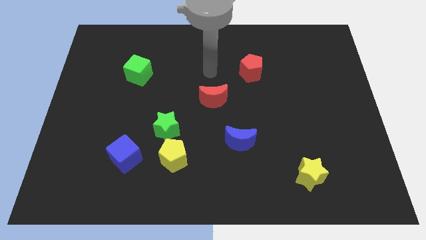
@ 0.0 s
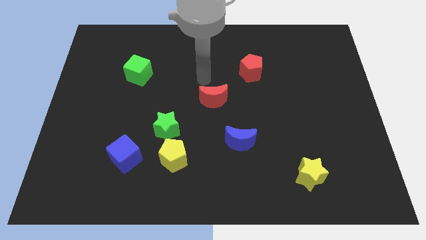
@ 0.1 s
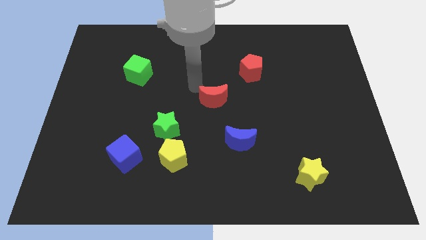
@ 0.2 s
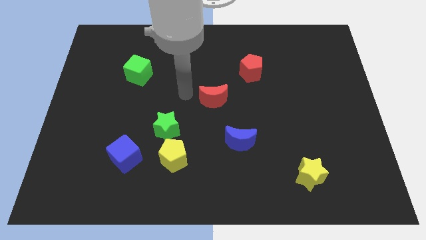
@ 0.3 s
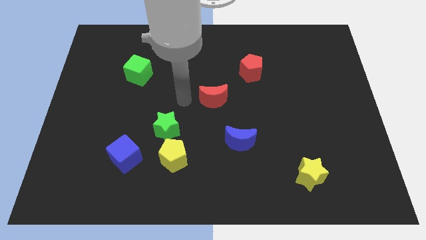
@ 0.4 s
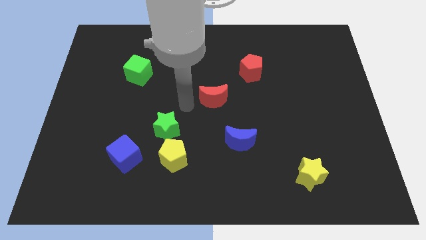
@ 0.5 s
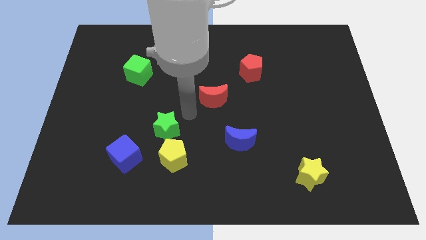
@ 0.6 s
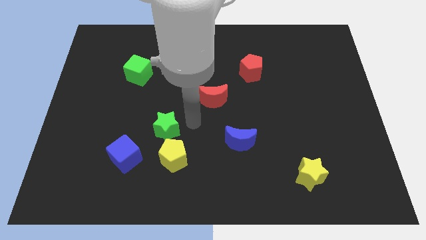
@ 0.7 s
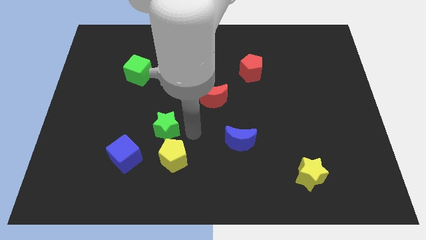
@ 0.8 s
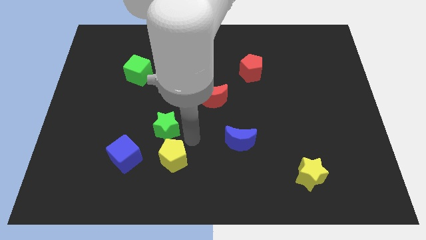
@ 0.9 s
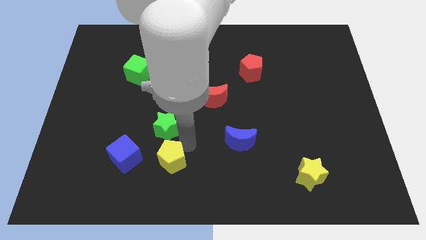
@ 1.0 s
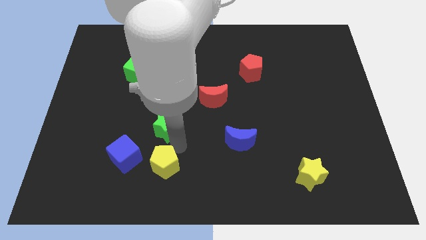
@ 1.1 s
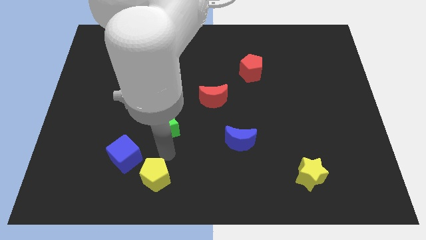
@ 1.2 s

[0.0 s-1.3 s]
move the green star away from the yellow pentagon

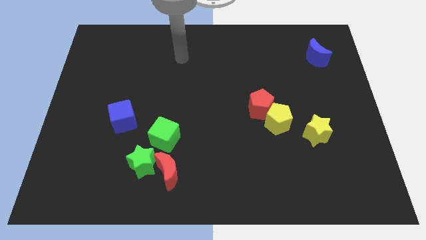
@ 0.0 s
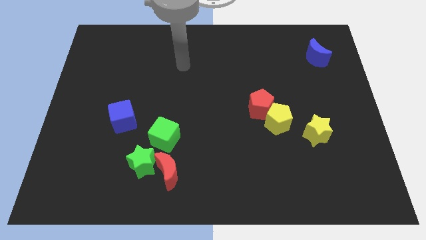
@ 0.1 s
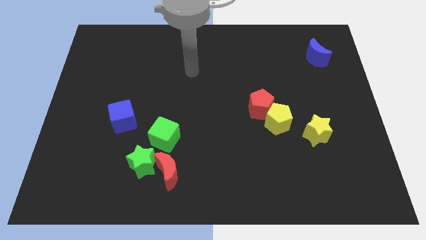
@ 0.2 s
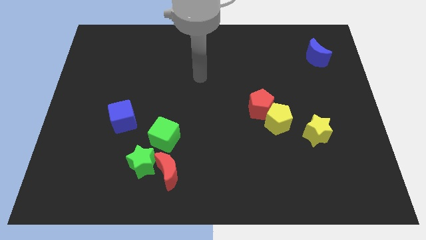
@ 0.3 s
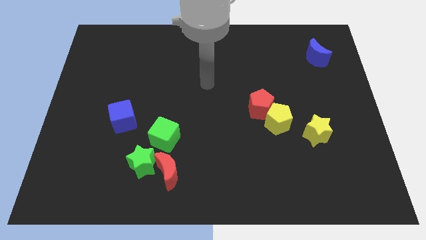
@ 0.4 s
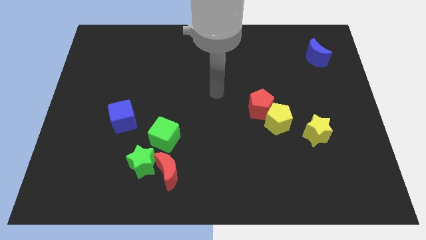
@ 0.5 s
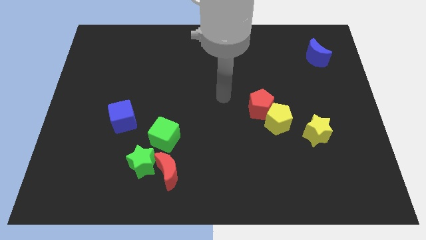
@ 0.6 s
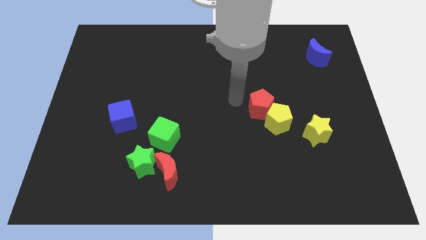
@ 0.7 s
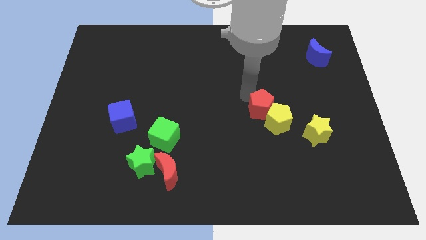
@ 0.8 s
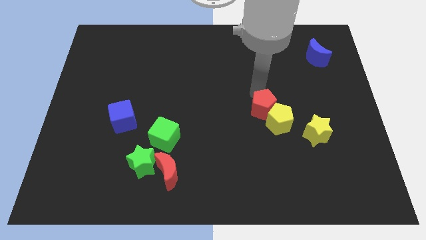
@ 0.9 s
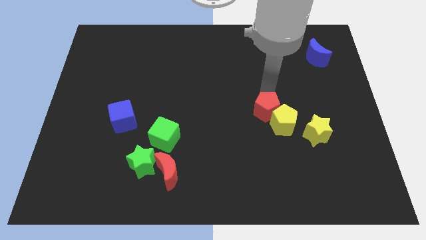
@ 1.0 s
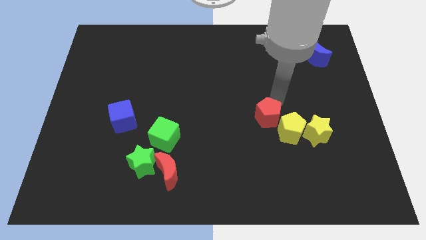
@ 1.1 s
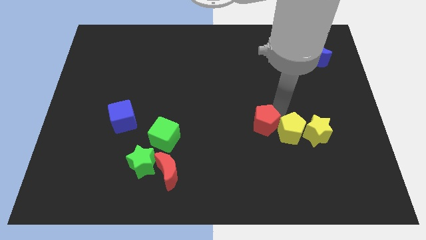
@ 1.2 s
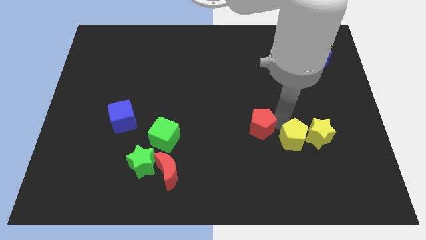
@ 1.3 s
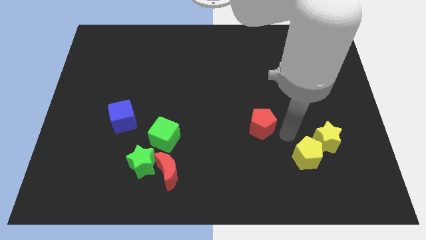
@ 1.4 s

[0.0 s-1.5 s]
separate the red pentagon from the yellow pentagon

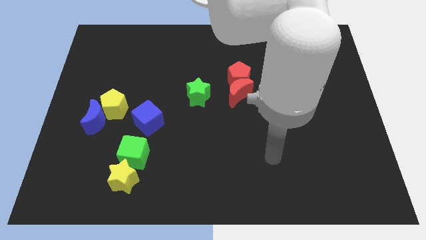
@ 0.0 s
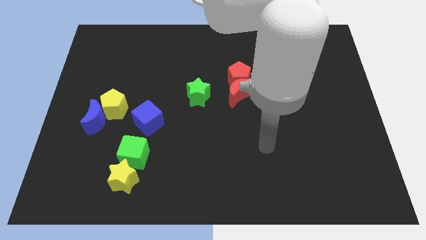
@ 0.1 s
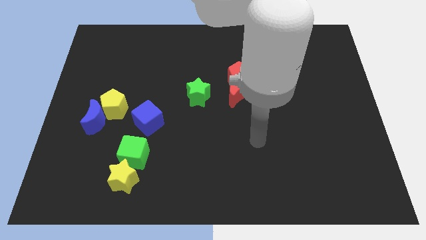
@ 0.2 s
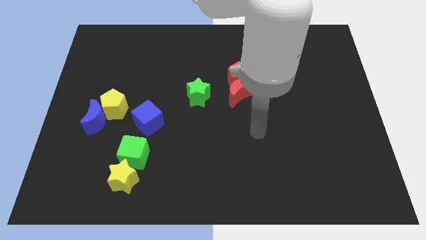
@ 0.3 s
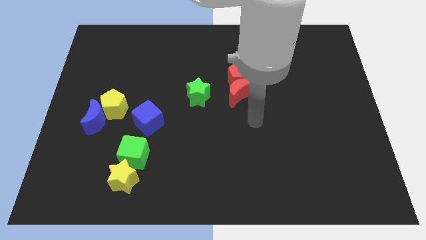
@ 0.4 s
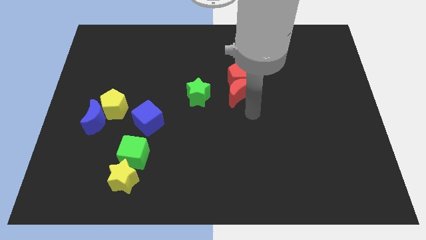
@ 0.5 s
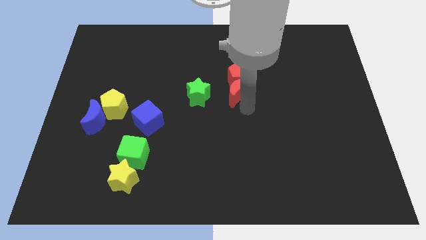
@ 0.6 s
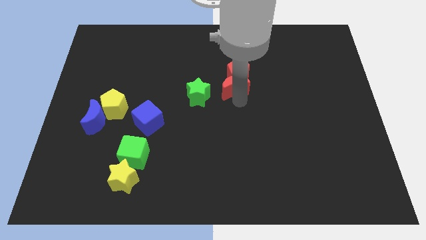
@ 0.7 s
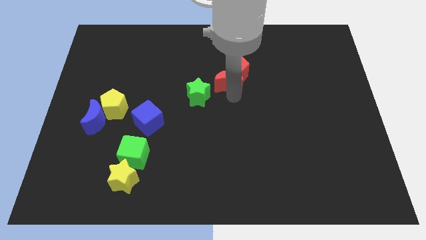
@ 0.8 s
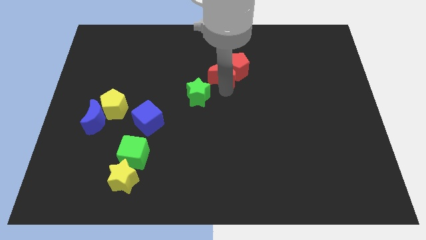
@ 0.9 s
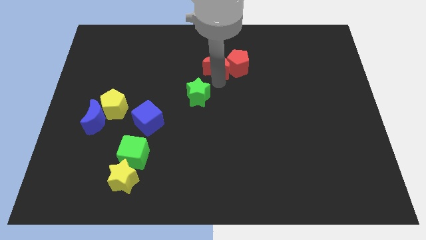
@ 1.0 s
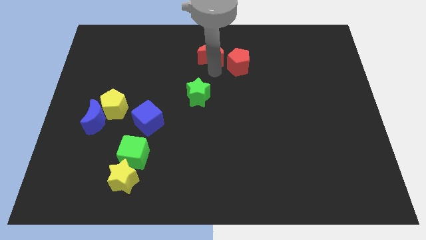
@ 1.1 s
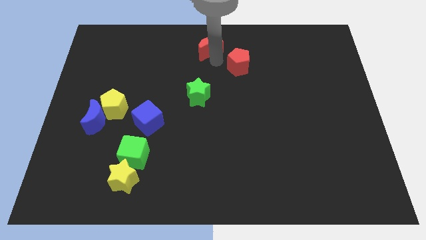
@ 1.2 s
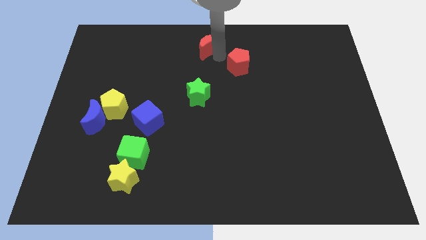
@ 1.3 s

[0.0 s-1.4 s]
separate the red pentagon from the red moon

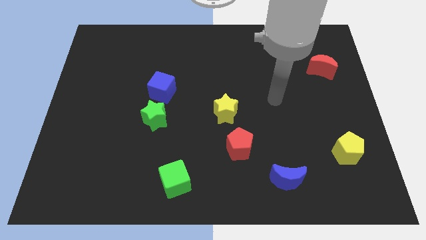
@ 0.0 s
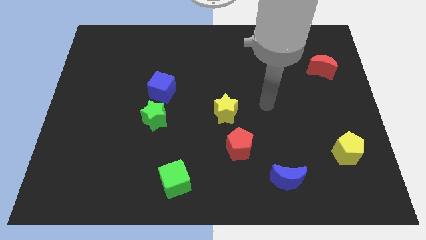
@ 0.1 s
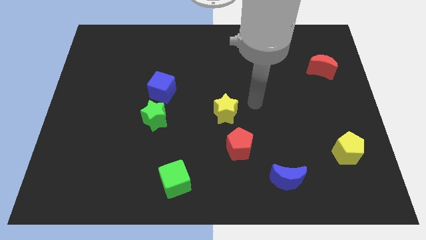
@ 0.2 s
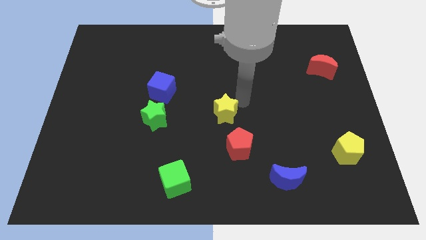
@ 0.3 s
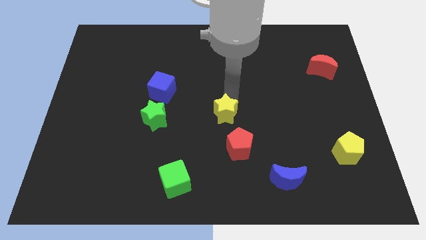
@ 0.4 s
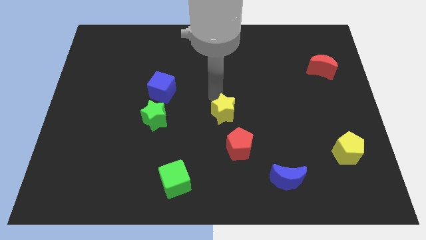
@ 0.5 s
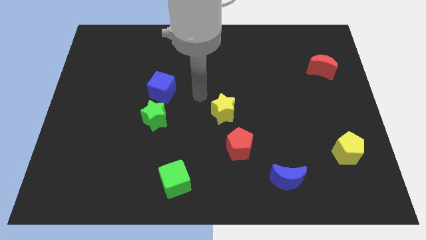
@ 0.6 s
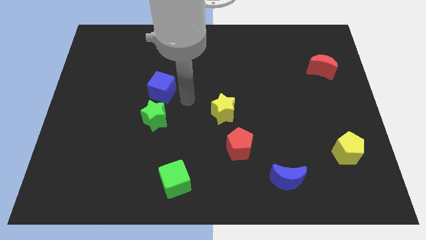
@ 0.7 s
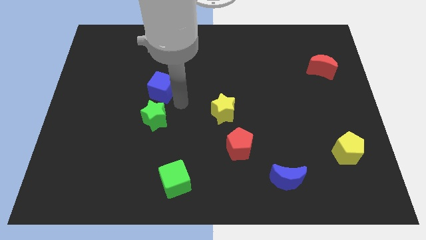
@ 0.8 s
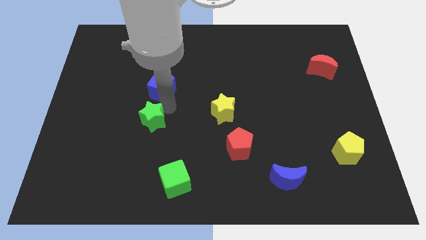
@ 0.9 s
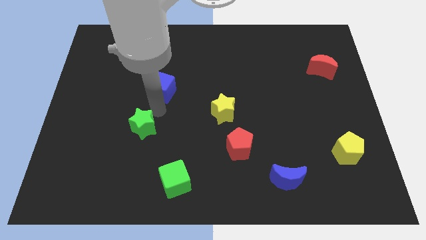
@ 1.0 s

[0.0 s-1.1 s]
pull the blue cube apart from the green star

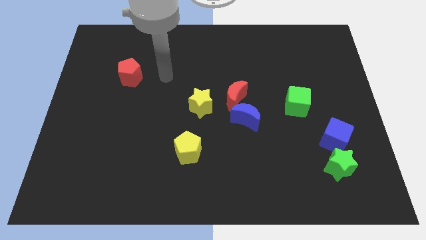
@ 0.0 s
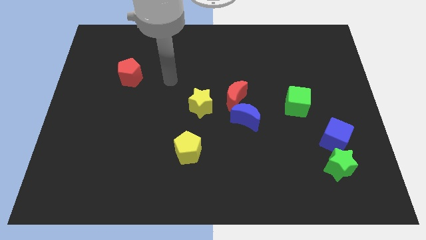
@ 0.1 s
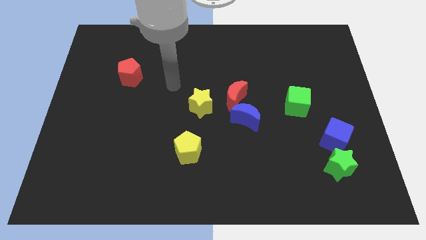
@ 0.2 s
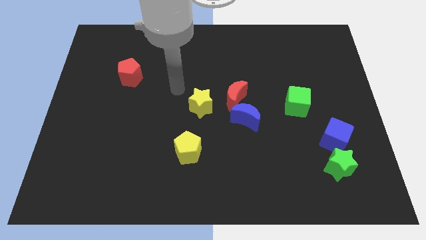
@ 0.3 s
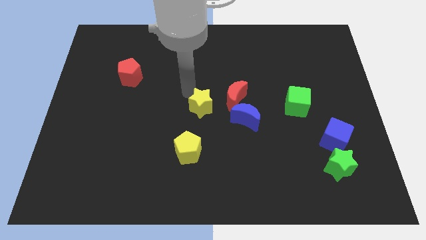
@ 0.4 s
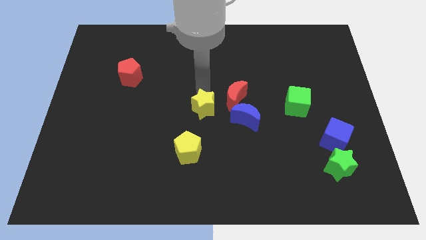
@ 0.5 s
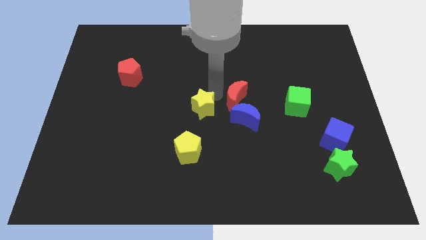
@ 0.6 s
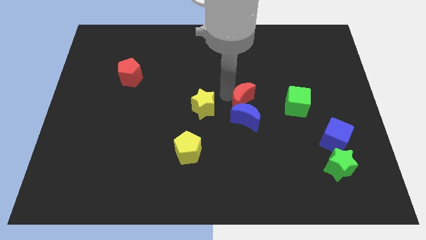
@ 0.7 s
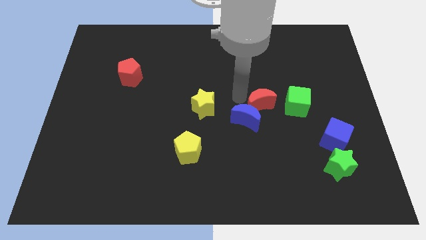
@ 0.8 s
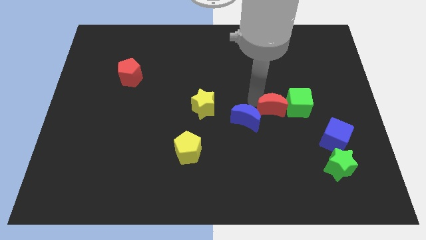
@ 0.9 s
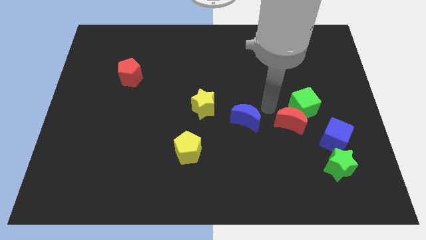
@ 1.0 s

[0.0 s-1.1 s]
separate the blue moon from the red moon

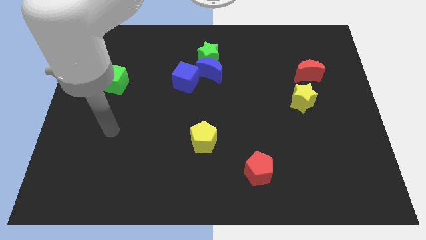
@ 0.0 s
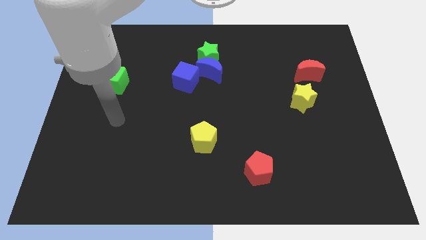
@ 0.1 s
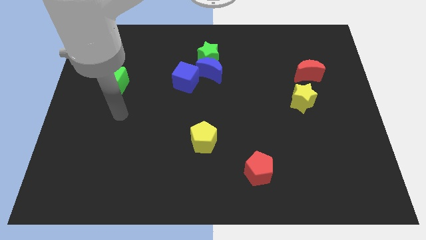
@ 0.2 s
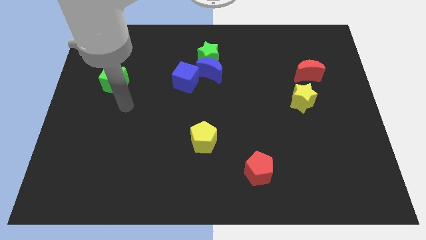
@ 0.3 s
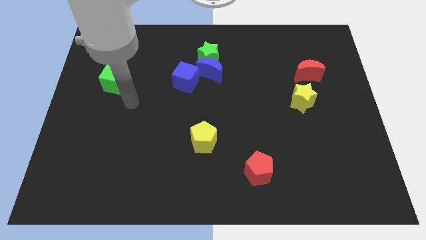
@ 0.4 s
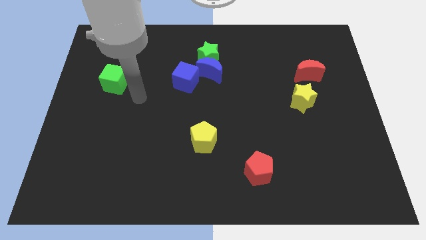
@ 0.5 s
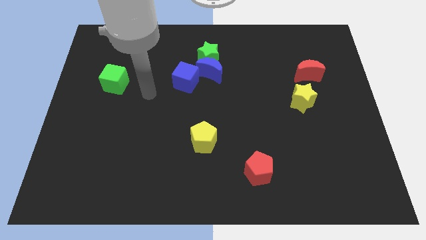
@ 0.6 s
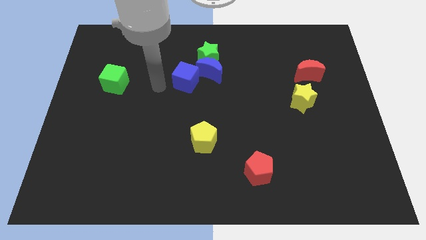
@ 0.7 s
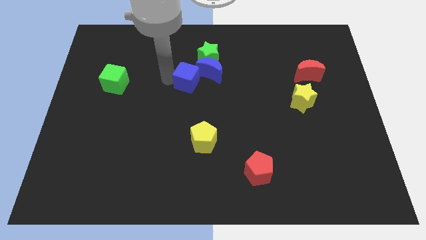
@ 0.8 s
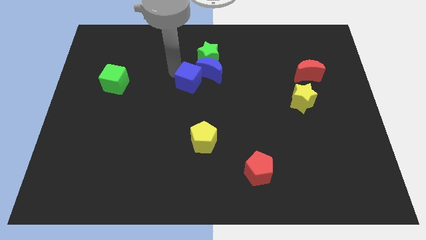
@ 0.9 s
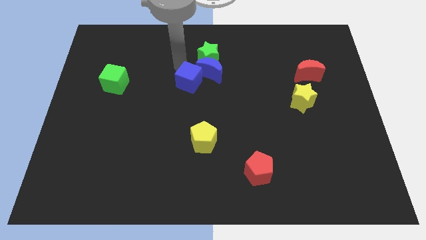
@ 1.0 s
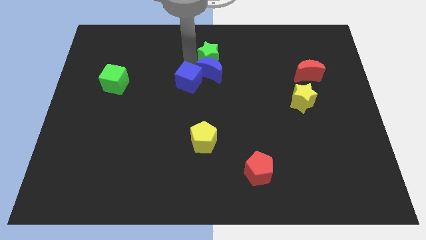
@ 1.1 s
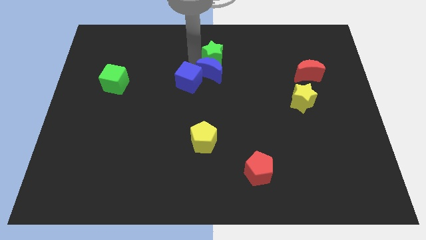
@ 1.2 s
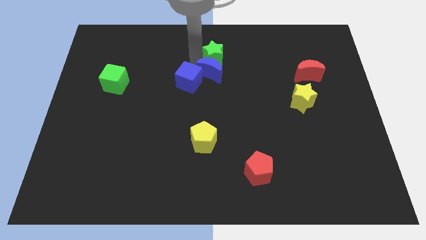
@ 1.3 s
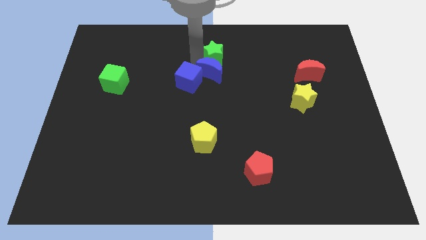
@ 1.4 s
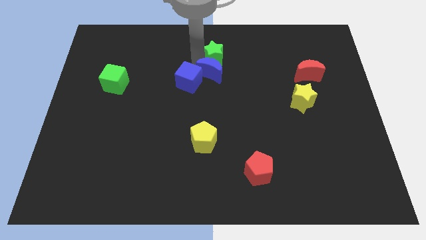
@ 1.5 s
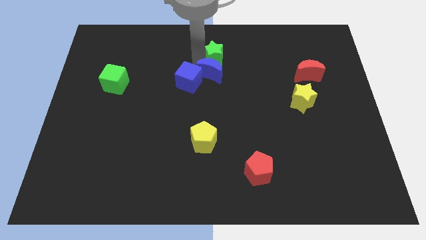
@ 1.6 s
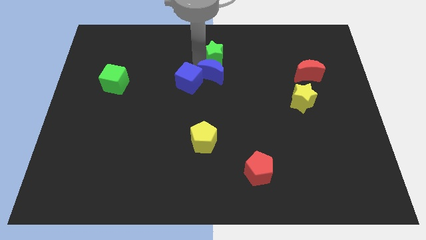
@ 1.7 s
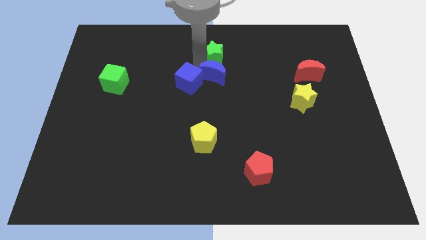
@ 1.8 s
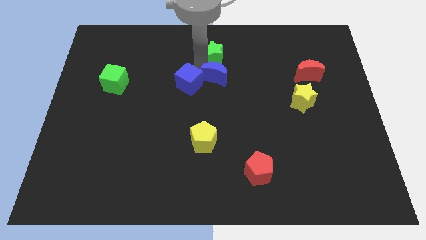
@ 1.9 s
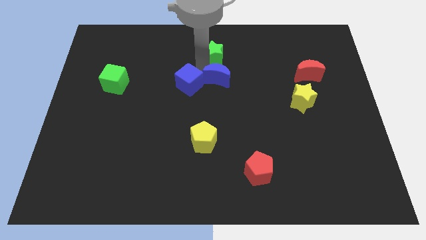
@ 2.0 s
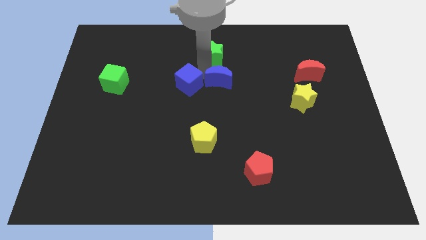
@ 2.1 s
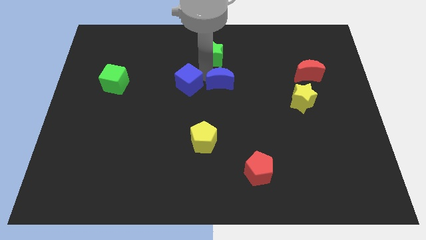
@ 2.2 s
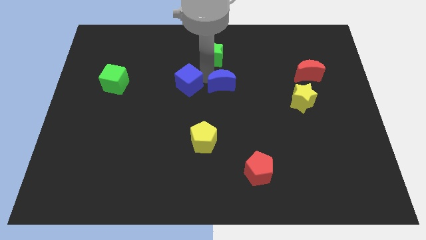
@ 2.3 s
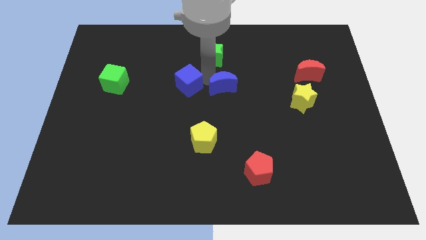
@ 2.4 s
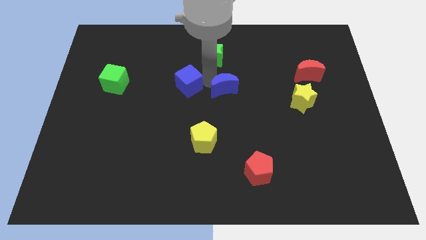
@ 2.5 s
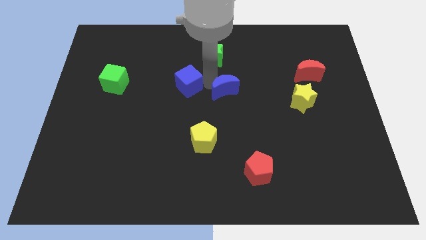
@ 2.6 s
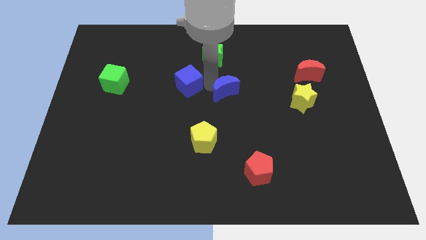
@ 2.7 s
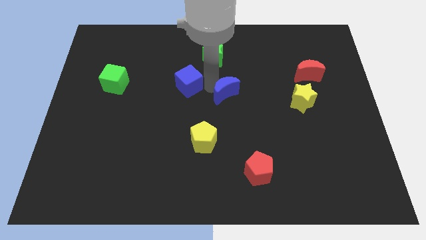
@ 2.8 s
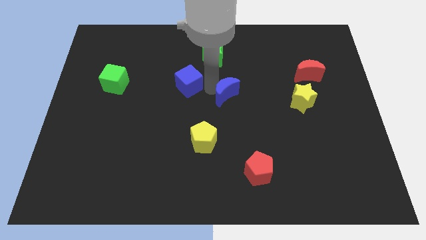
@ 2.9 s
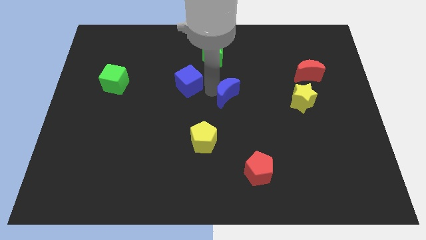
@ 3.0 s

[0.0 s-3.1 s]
pull the blue moon apart from the green star and blue cube
